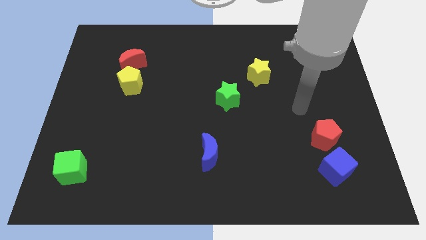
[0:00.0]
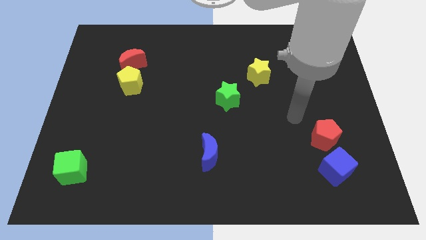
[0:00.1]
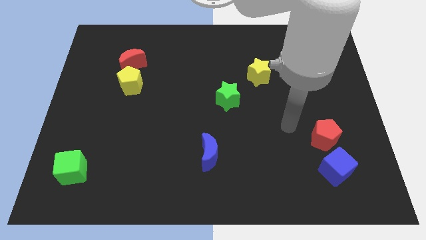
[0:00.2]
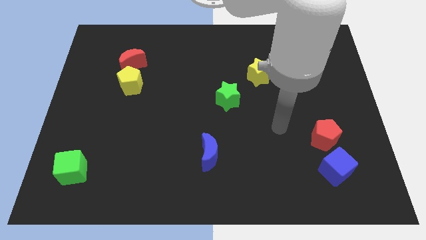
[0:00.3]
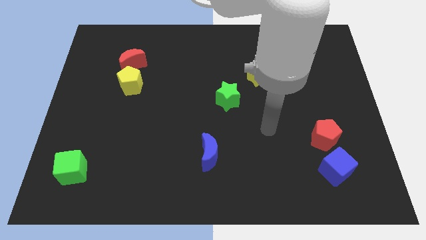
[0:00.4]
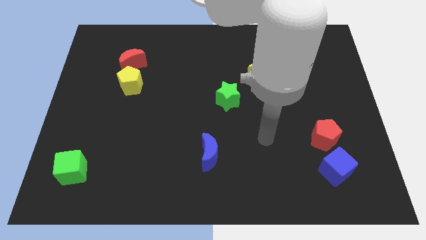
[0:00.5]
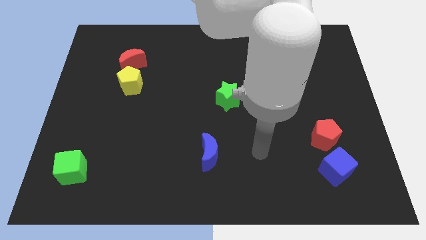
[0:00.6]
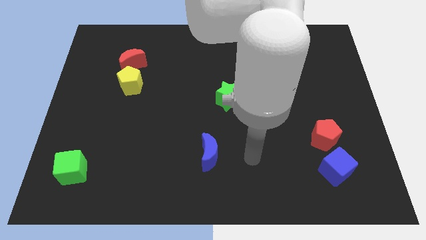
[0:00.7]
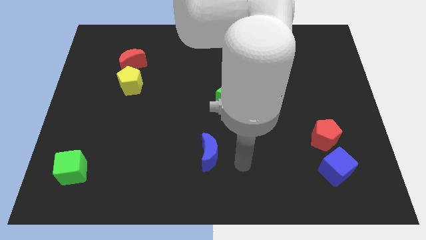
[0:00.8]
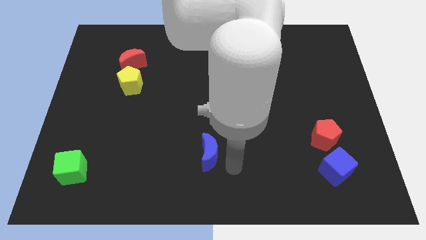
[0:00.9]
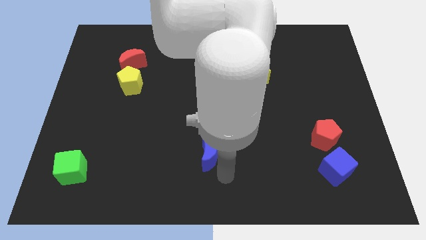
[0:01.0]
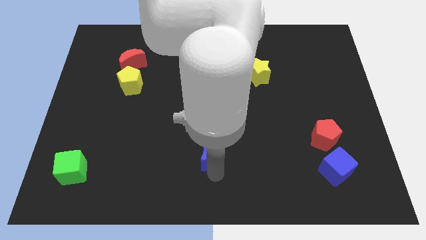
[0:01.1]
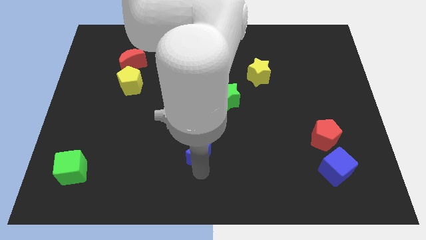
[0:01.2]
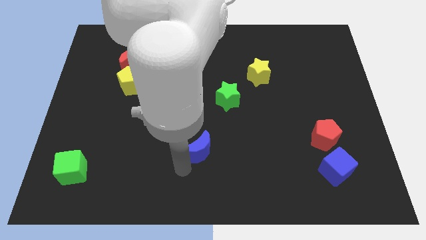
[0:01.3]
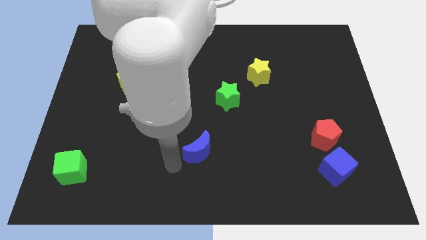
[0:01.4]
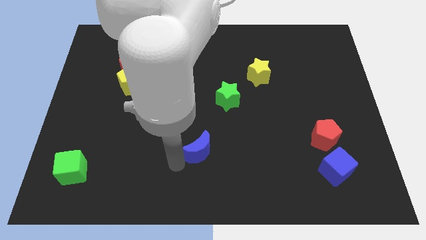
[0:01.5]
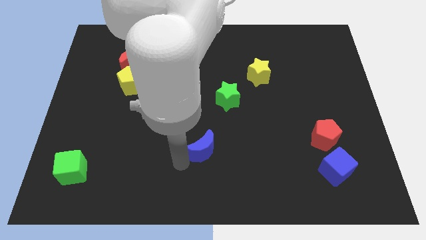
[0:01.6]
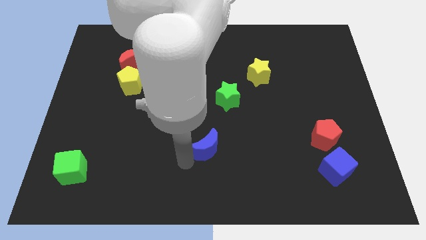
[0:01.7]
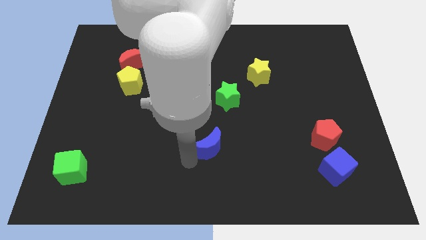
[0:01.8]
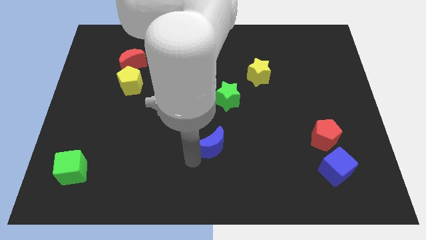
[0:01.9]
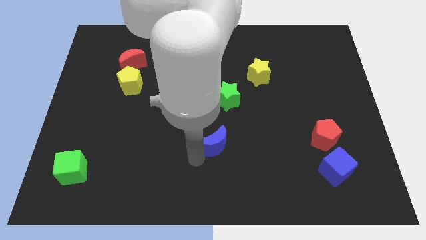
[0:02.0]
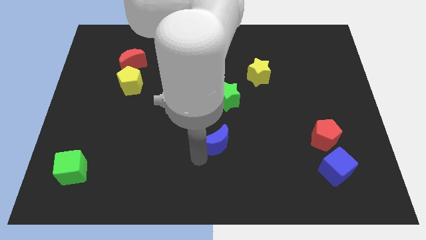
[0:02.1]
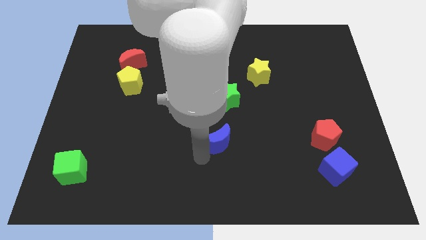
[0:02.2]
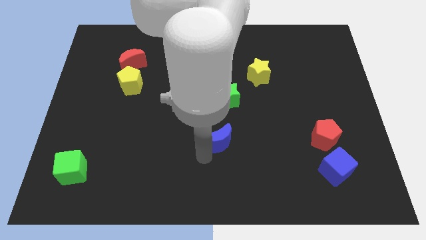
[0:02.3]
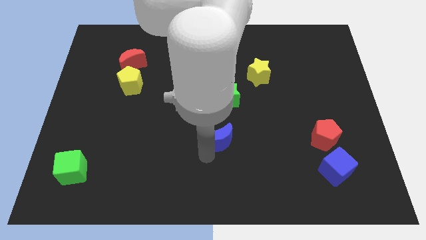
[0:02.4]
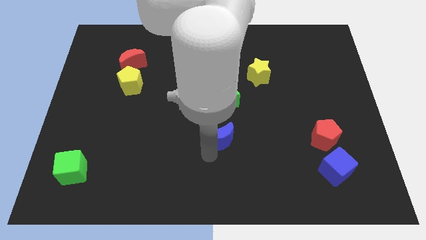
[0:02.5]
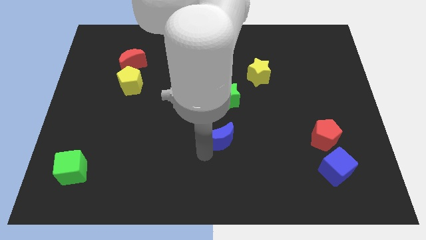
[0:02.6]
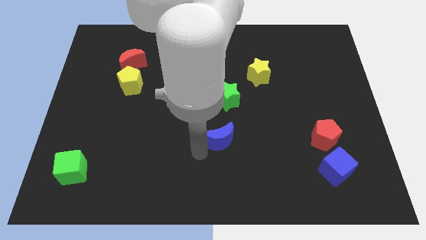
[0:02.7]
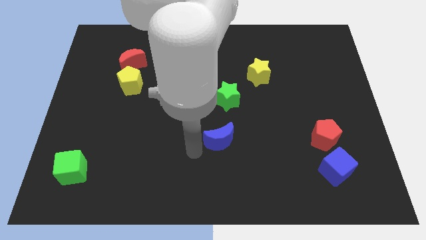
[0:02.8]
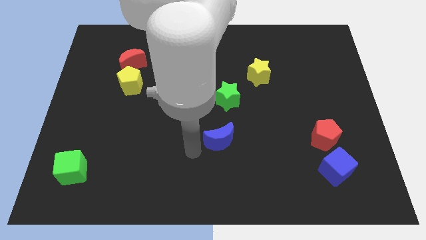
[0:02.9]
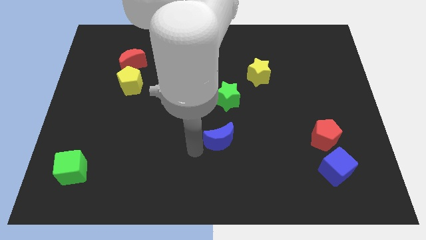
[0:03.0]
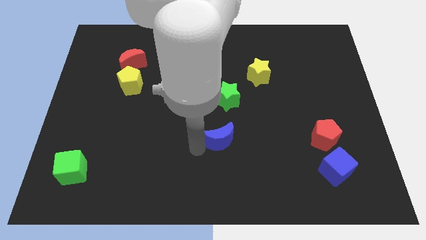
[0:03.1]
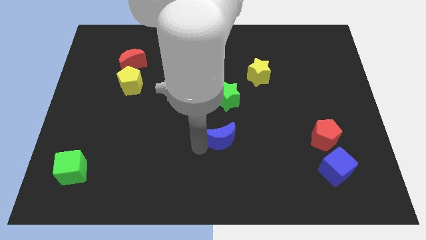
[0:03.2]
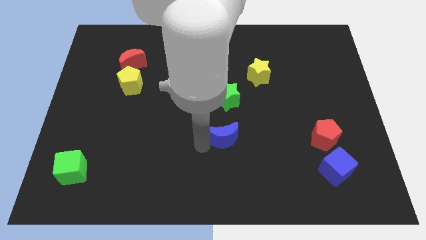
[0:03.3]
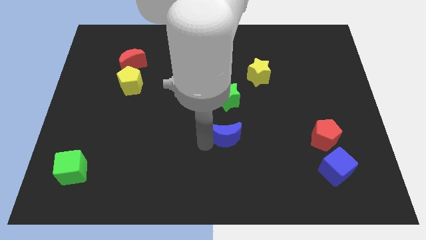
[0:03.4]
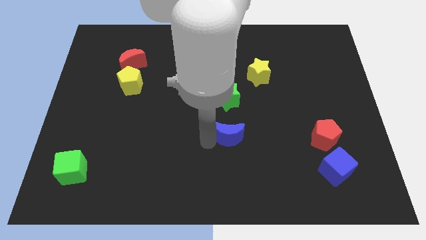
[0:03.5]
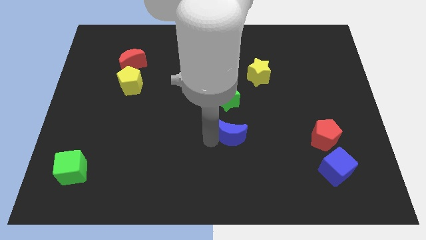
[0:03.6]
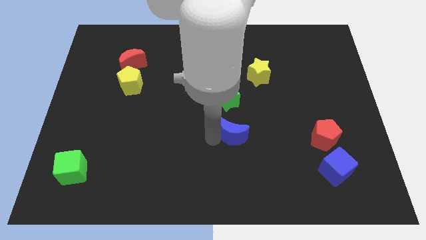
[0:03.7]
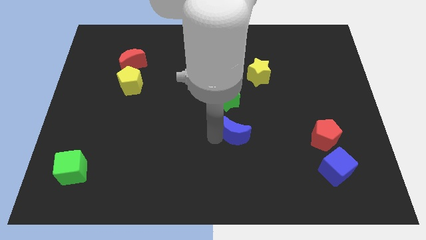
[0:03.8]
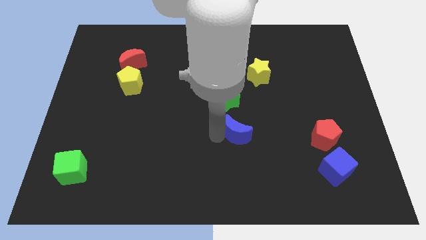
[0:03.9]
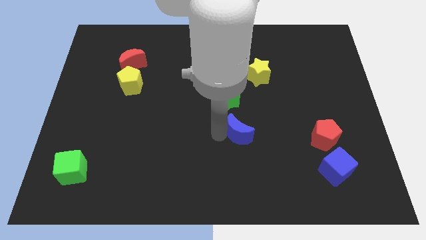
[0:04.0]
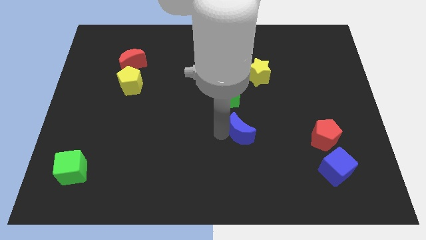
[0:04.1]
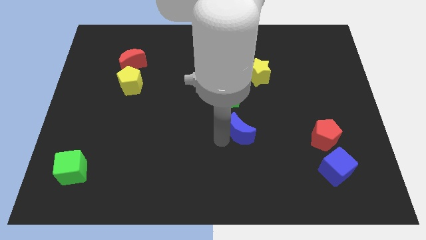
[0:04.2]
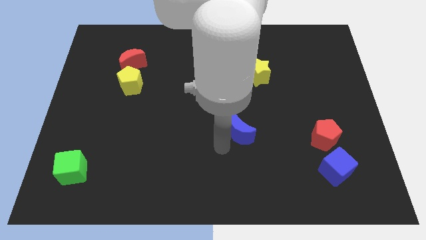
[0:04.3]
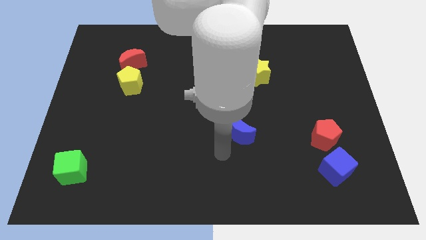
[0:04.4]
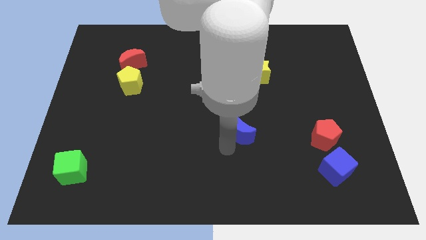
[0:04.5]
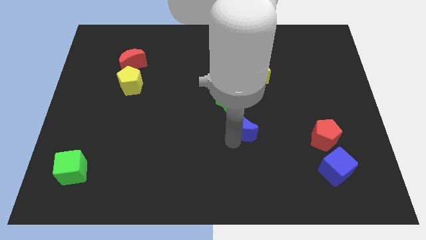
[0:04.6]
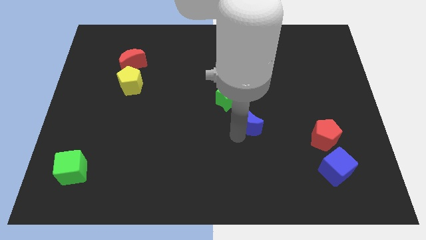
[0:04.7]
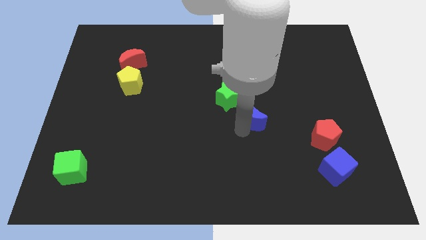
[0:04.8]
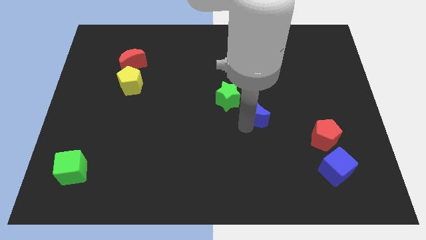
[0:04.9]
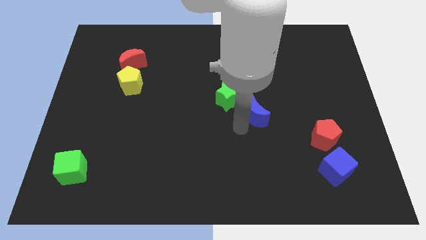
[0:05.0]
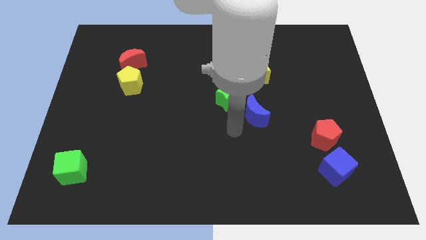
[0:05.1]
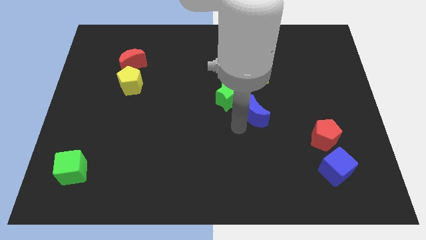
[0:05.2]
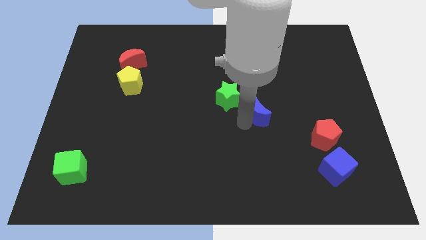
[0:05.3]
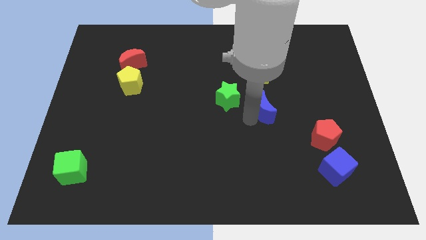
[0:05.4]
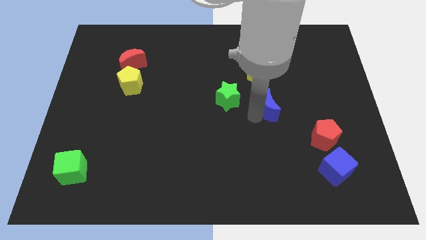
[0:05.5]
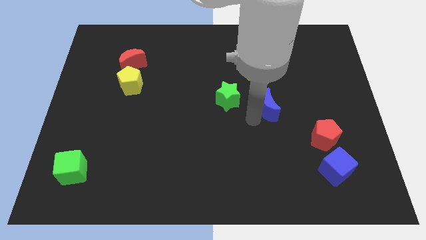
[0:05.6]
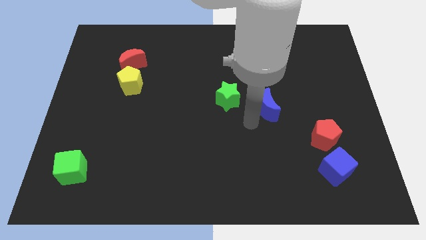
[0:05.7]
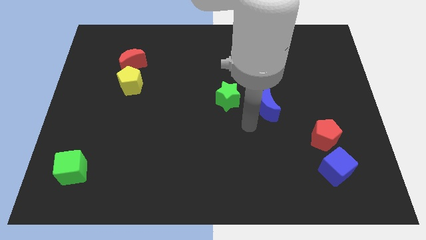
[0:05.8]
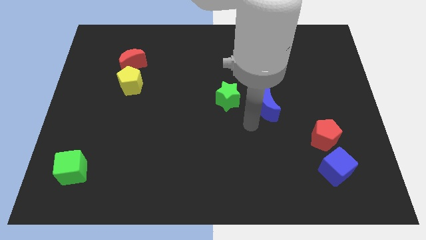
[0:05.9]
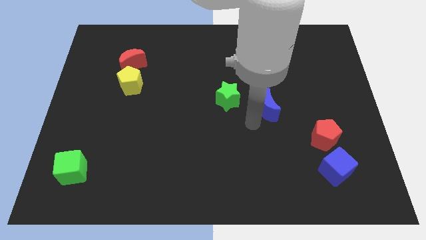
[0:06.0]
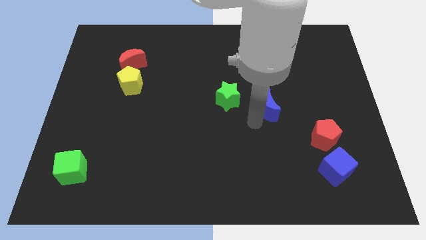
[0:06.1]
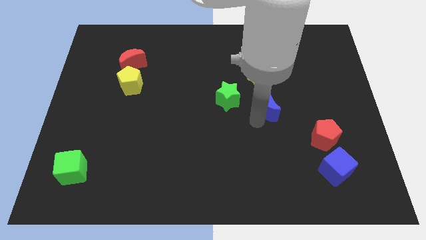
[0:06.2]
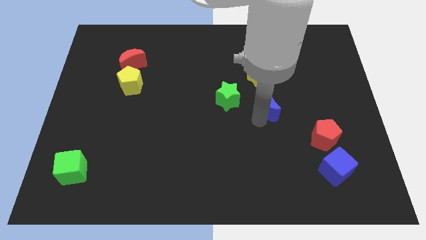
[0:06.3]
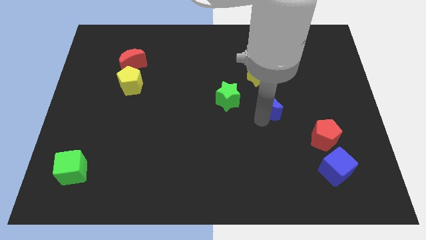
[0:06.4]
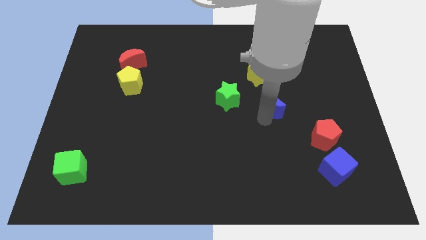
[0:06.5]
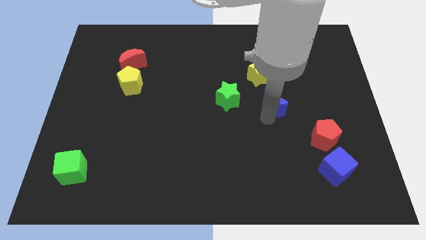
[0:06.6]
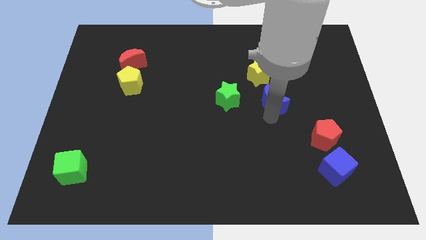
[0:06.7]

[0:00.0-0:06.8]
put the blue moon diagonally down and to the right of the yellow star
